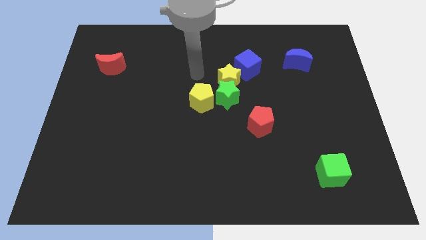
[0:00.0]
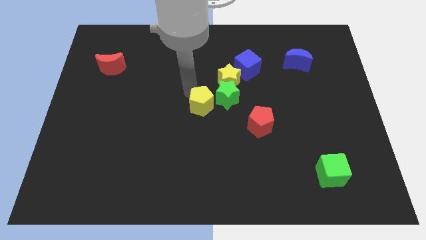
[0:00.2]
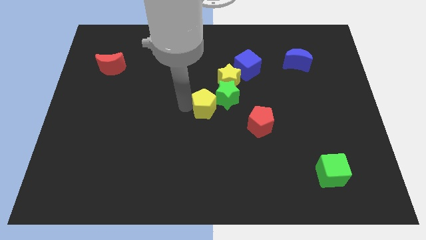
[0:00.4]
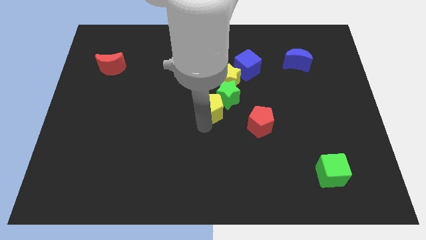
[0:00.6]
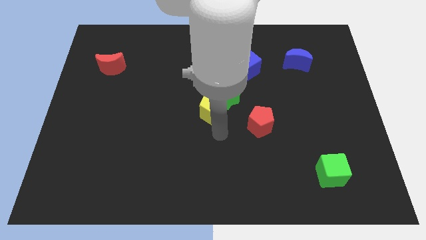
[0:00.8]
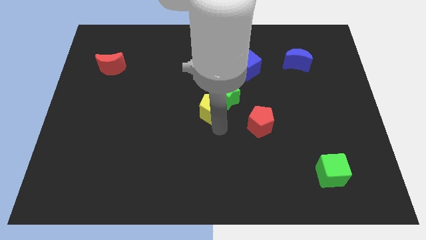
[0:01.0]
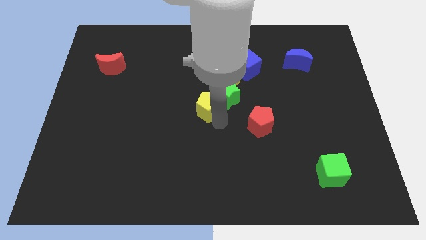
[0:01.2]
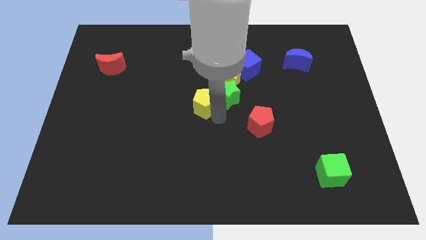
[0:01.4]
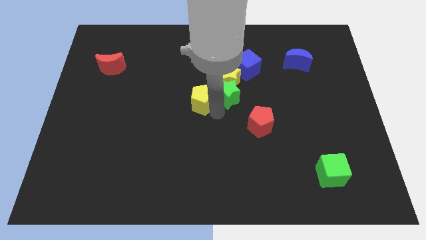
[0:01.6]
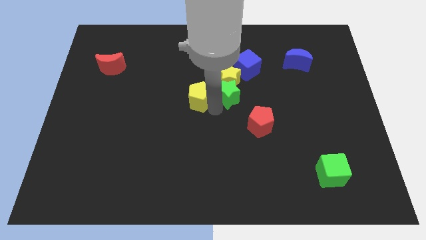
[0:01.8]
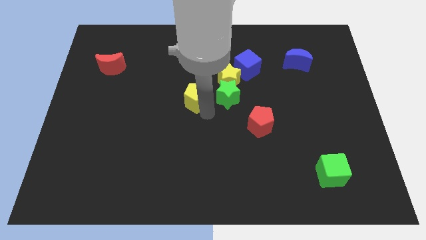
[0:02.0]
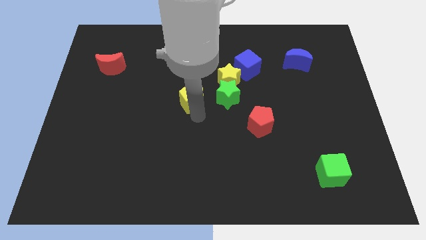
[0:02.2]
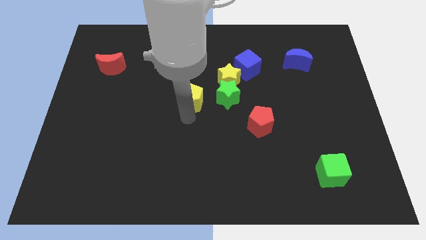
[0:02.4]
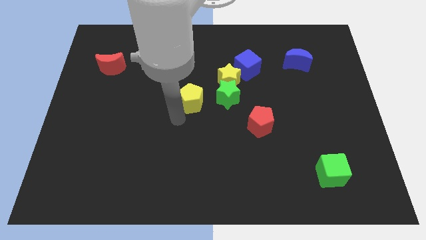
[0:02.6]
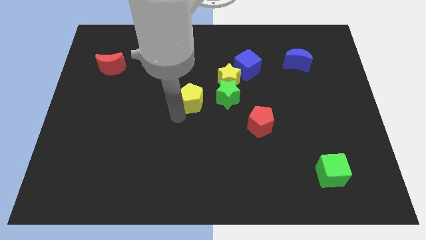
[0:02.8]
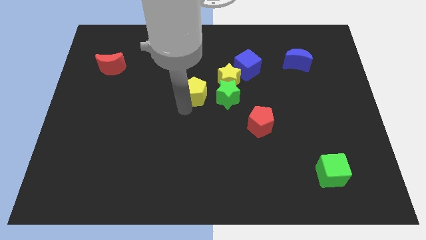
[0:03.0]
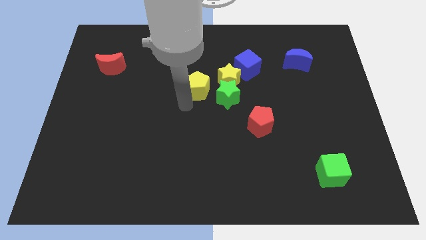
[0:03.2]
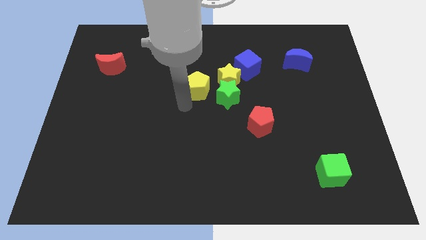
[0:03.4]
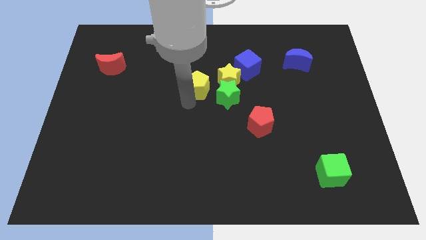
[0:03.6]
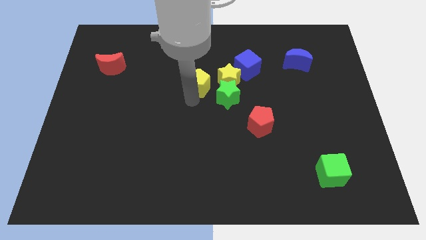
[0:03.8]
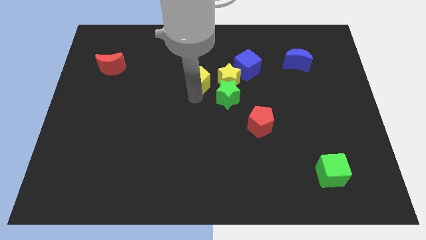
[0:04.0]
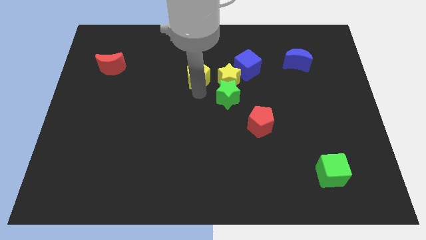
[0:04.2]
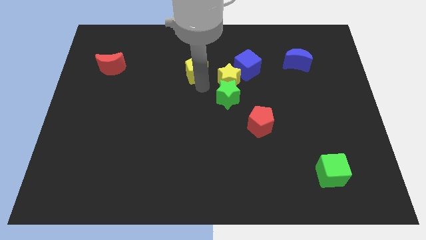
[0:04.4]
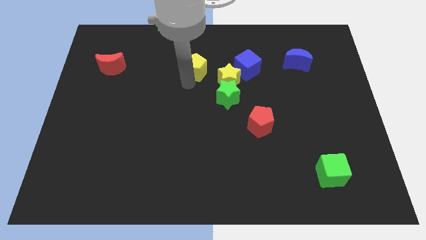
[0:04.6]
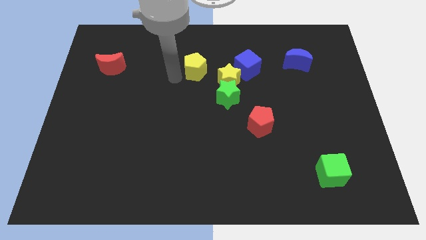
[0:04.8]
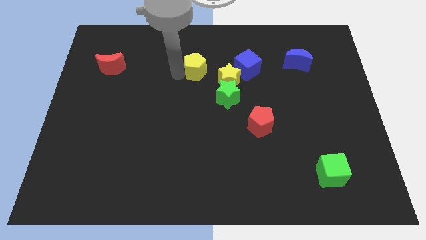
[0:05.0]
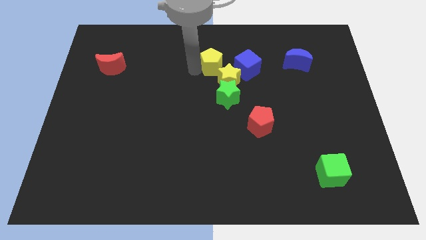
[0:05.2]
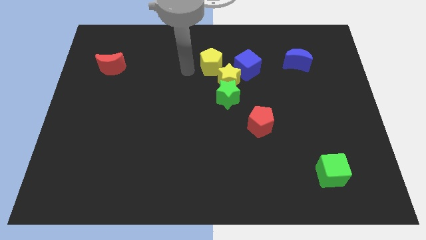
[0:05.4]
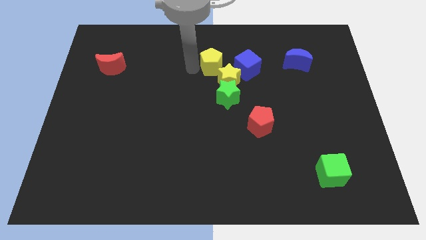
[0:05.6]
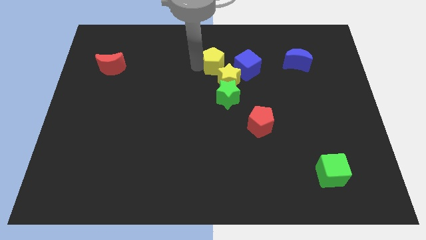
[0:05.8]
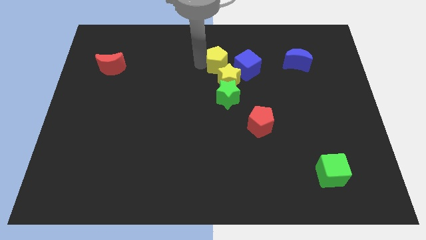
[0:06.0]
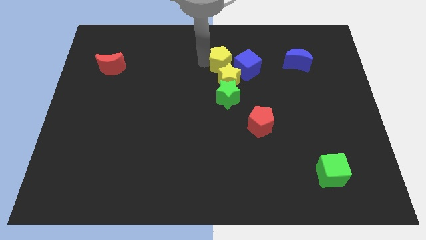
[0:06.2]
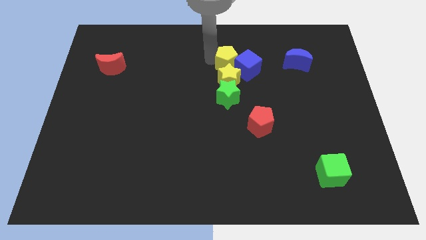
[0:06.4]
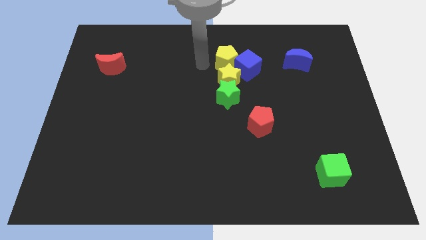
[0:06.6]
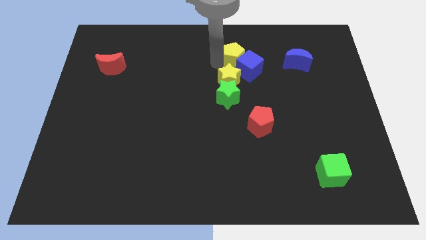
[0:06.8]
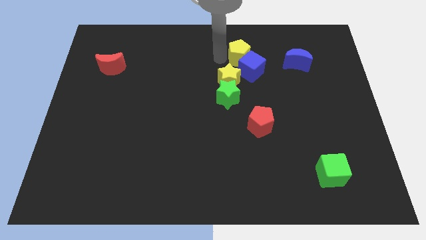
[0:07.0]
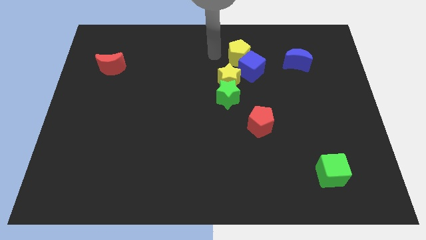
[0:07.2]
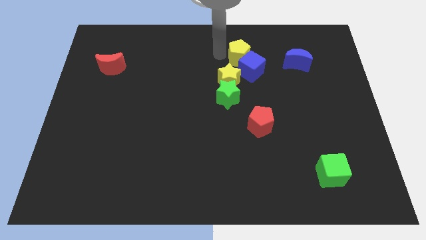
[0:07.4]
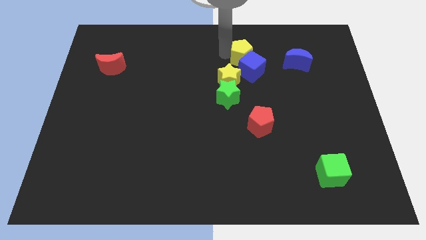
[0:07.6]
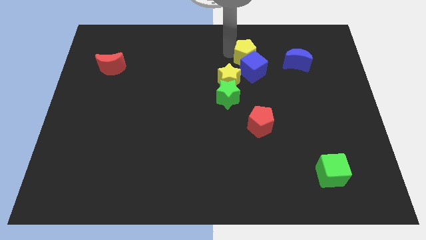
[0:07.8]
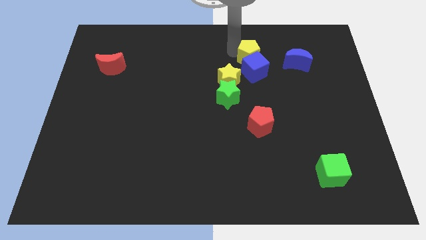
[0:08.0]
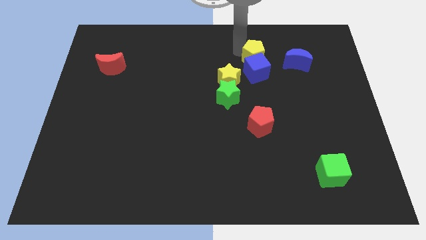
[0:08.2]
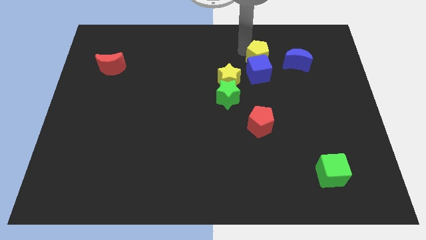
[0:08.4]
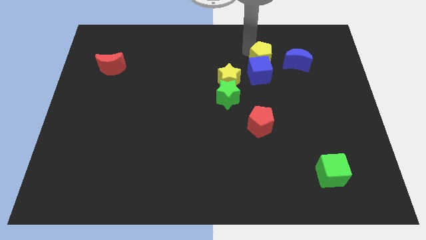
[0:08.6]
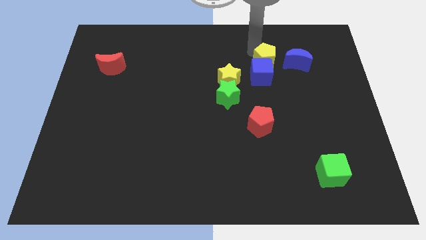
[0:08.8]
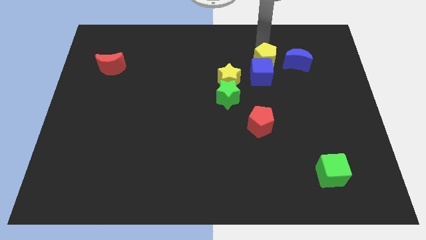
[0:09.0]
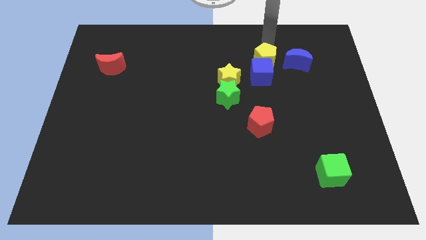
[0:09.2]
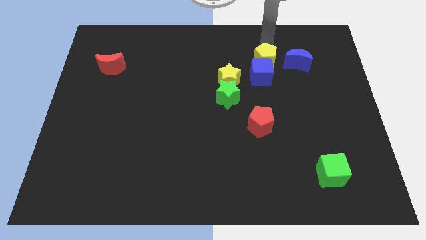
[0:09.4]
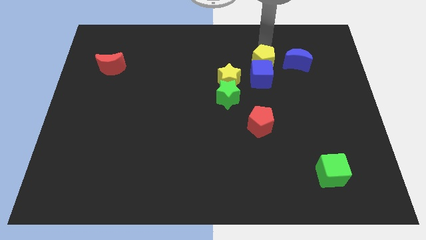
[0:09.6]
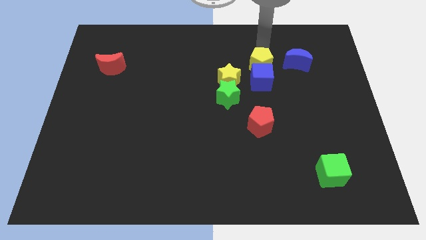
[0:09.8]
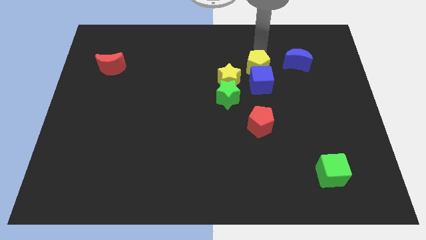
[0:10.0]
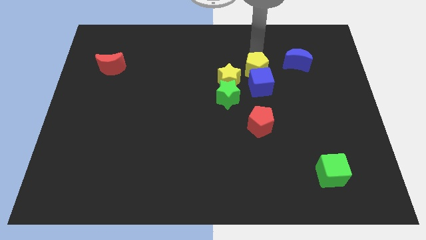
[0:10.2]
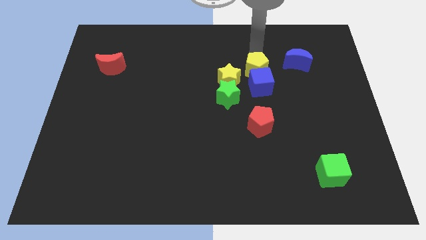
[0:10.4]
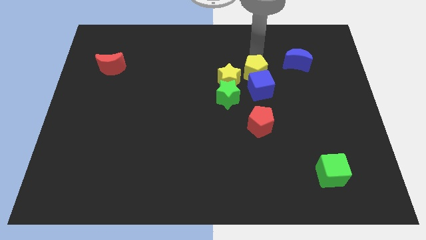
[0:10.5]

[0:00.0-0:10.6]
move the yellow pentagon above the red pentagon
